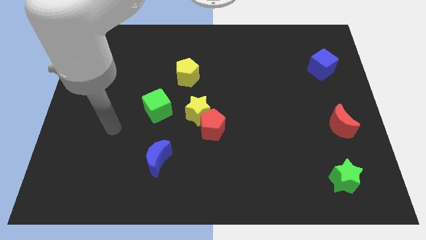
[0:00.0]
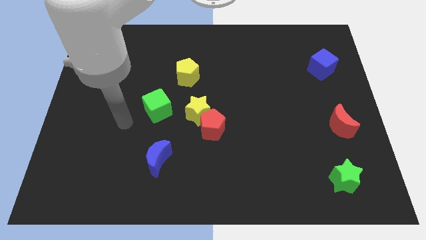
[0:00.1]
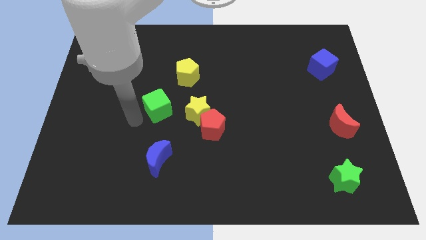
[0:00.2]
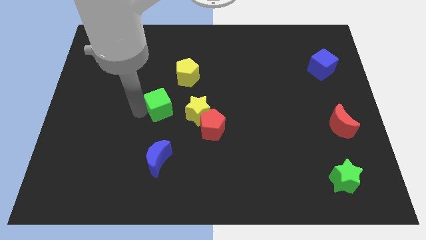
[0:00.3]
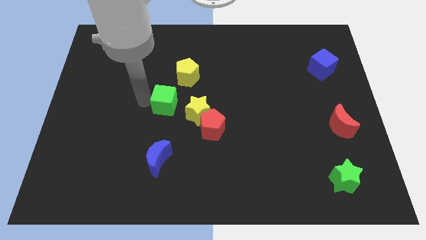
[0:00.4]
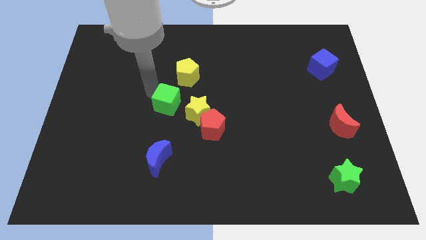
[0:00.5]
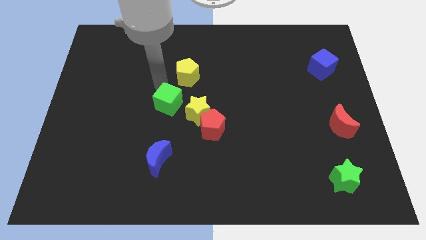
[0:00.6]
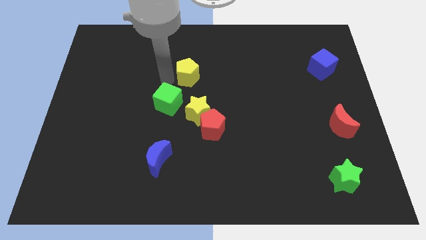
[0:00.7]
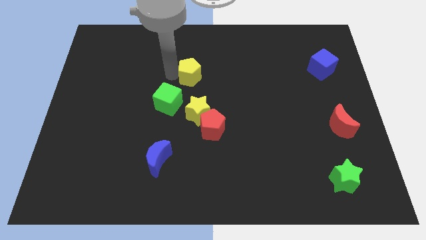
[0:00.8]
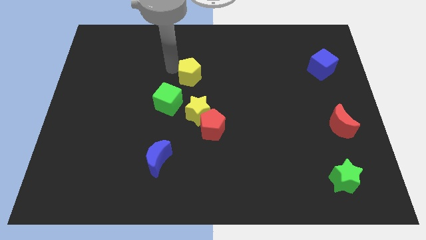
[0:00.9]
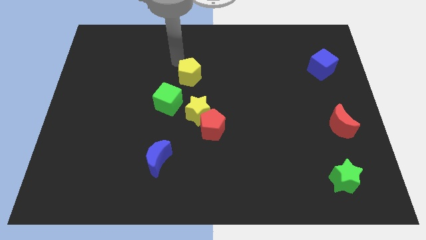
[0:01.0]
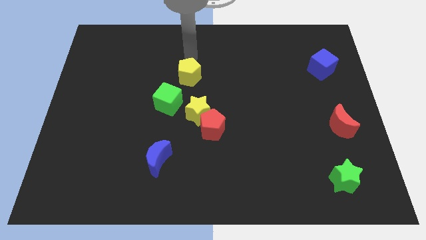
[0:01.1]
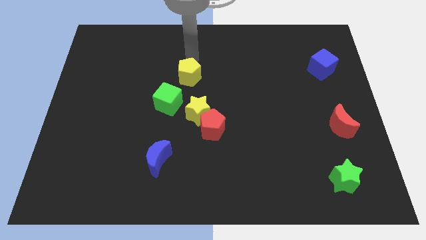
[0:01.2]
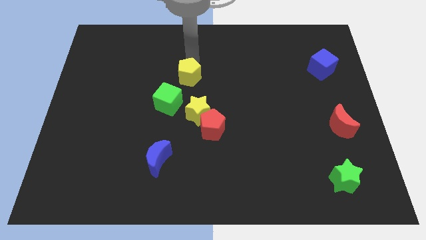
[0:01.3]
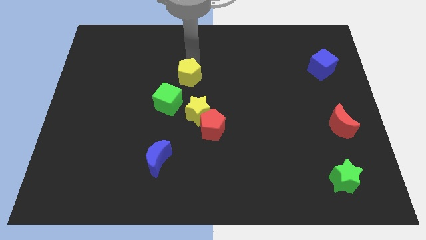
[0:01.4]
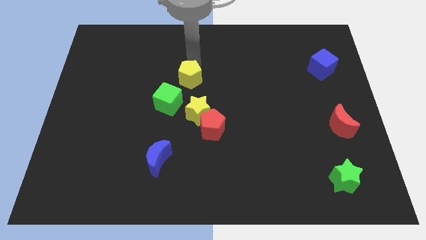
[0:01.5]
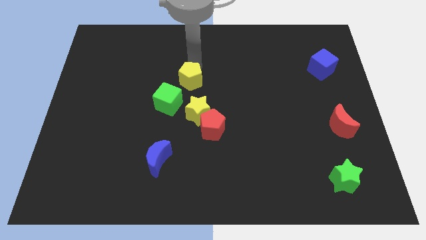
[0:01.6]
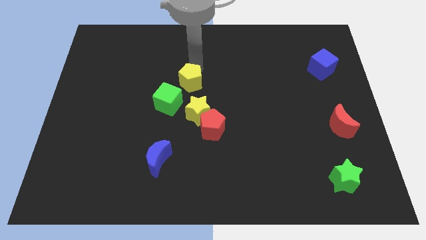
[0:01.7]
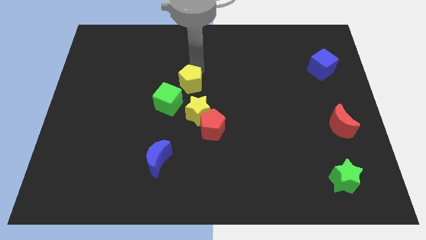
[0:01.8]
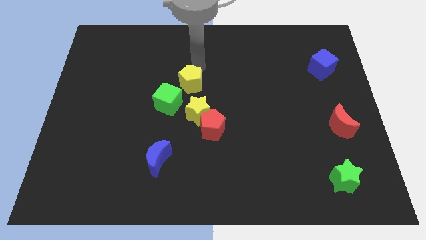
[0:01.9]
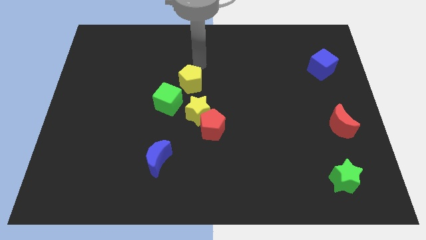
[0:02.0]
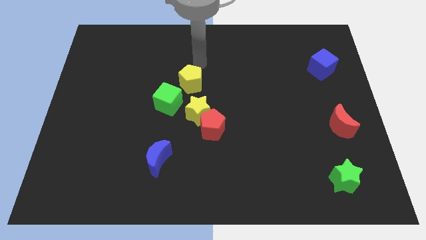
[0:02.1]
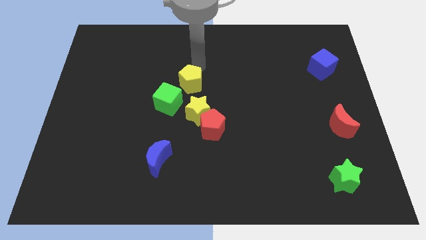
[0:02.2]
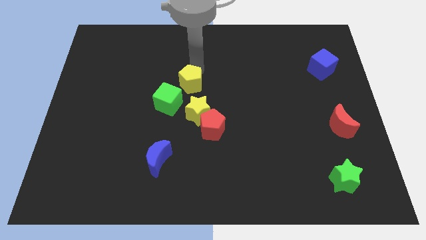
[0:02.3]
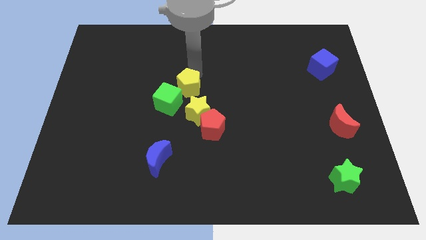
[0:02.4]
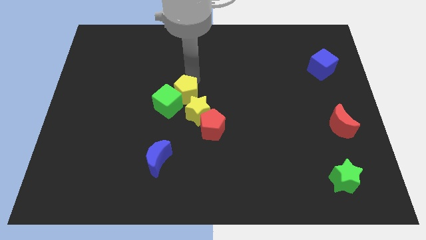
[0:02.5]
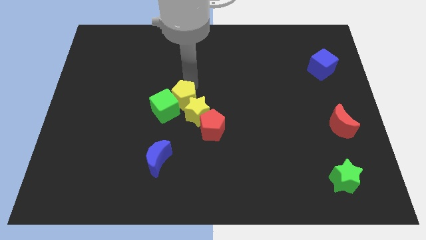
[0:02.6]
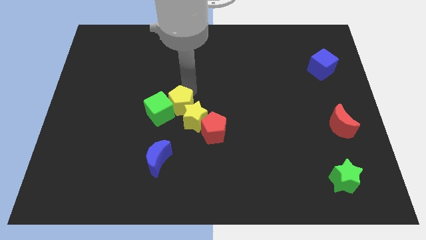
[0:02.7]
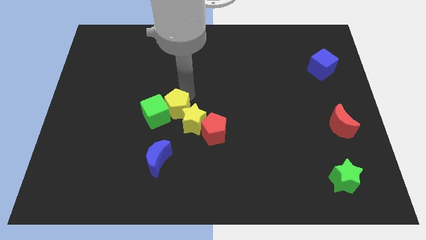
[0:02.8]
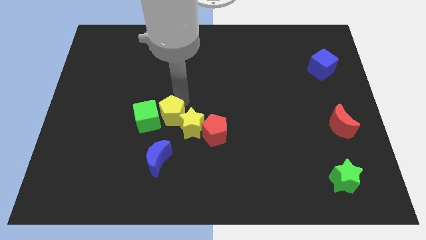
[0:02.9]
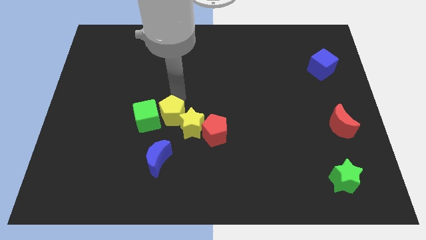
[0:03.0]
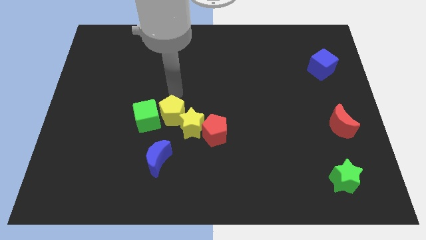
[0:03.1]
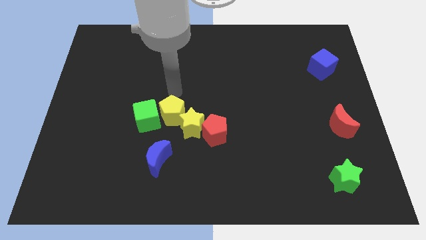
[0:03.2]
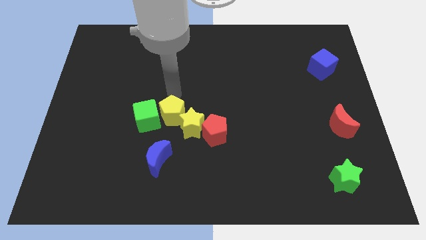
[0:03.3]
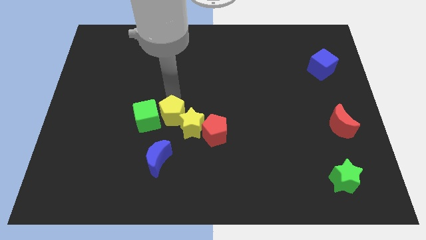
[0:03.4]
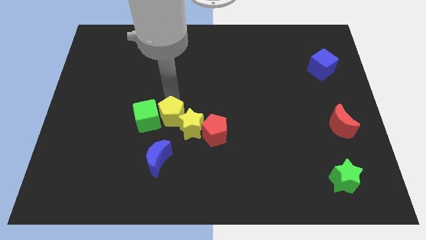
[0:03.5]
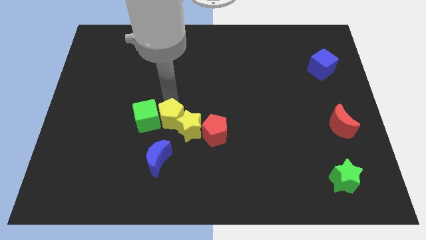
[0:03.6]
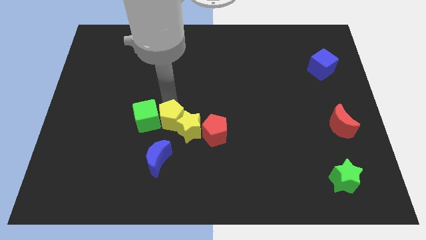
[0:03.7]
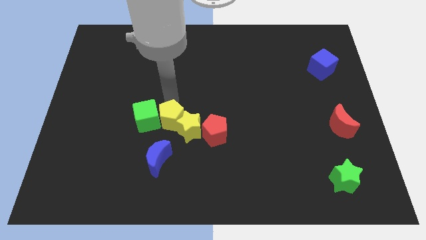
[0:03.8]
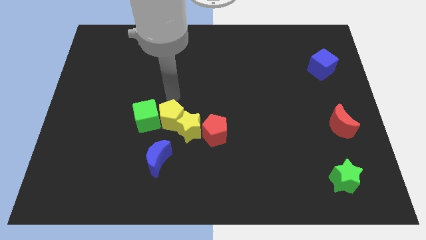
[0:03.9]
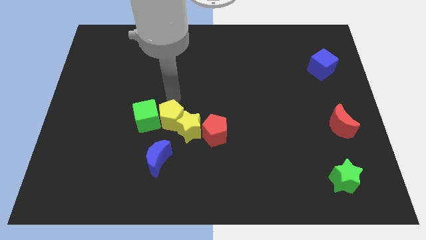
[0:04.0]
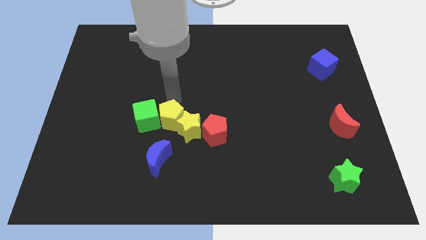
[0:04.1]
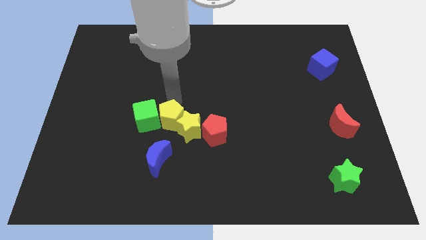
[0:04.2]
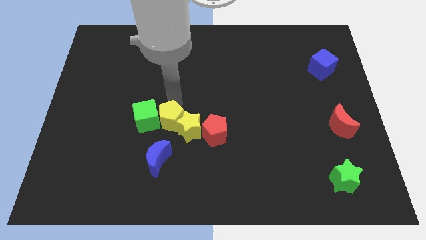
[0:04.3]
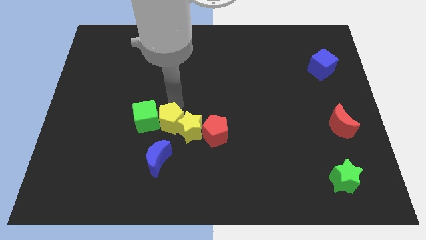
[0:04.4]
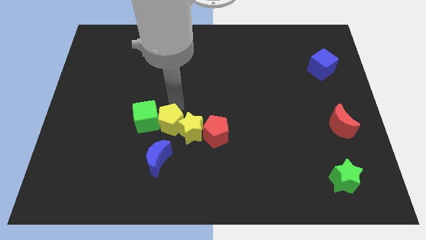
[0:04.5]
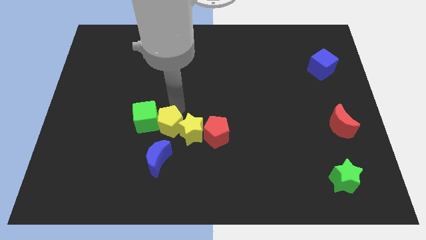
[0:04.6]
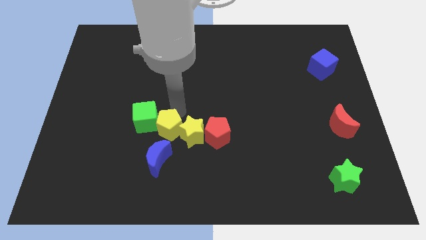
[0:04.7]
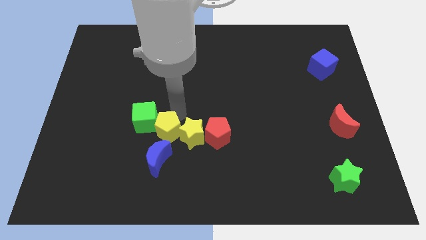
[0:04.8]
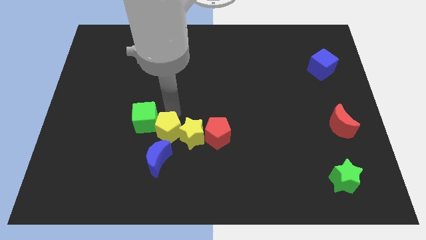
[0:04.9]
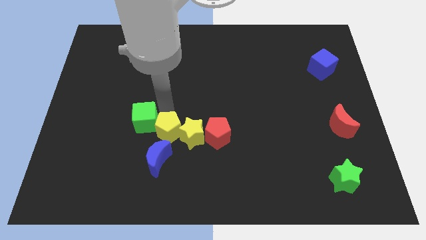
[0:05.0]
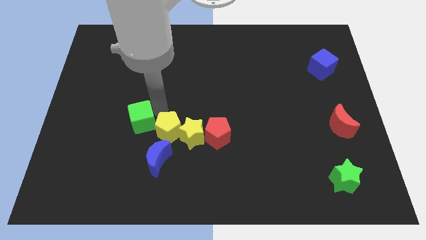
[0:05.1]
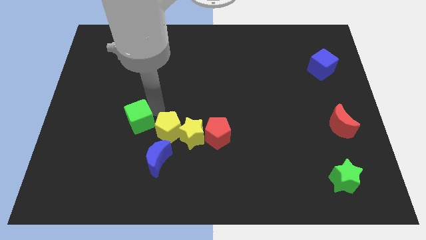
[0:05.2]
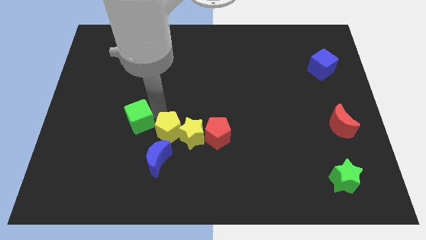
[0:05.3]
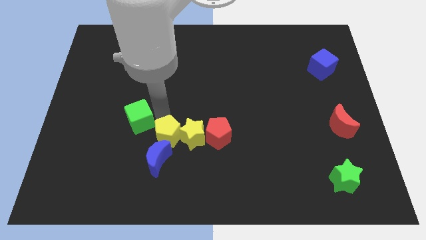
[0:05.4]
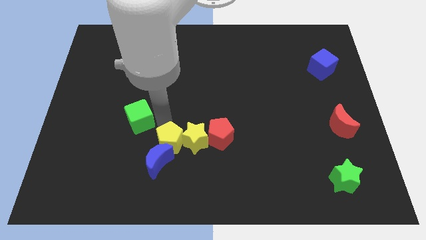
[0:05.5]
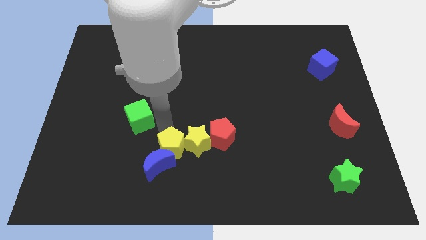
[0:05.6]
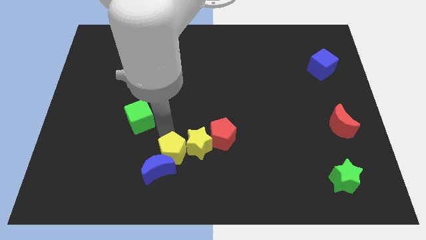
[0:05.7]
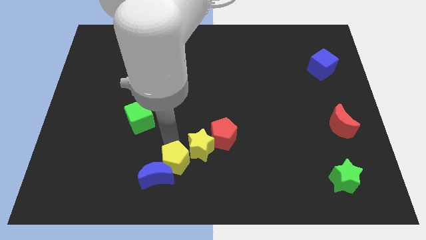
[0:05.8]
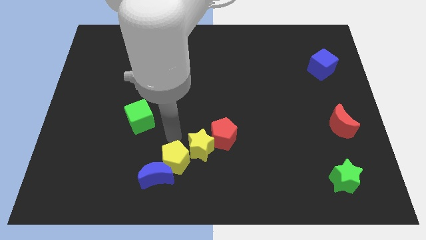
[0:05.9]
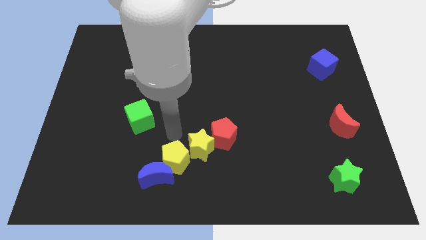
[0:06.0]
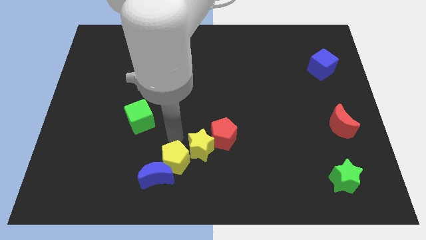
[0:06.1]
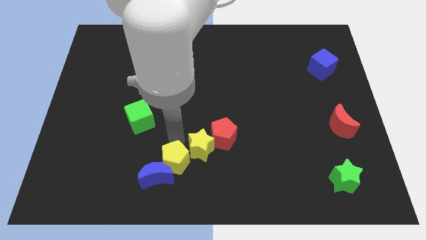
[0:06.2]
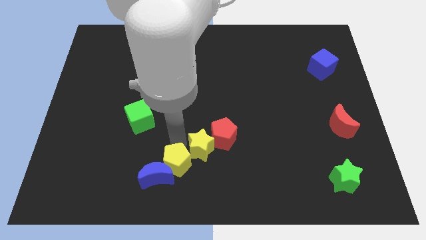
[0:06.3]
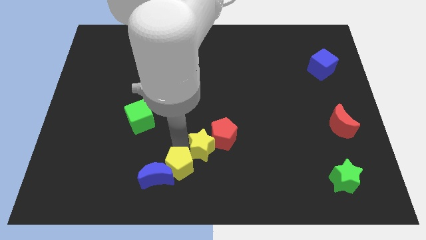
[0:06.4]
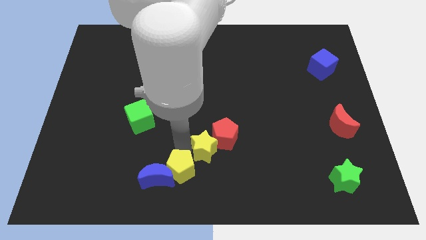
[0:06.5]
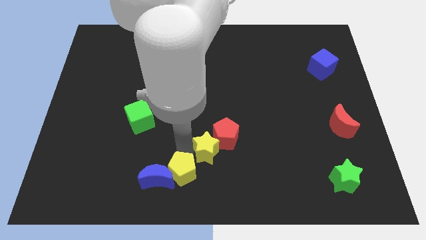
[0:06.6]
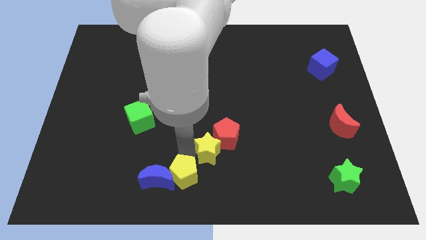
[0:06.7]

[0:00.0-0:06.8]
push the yellow pentagon to the bottom right of the blue moon
